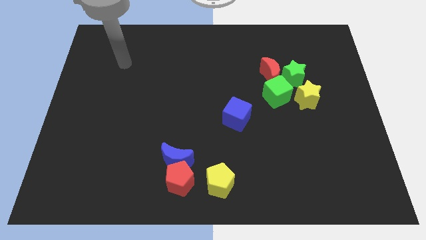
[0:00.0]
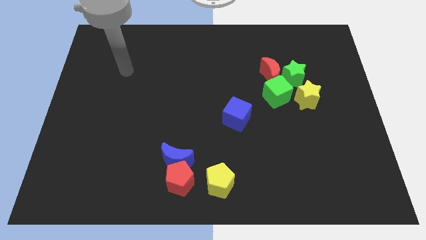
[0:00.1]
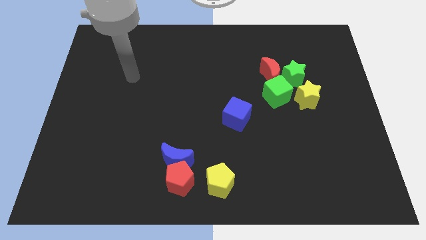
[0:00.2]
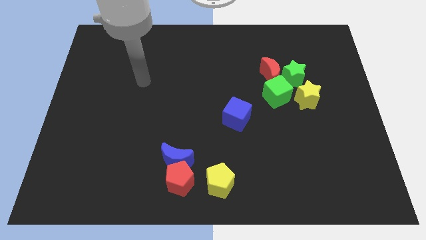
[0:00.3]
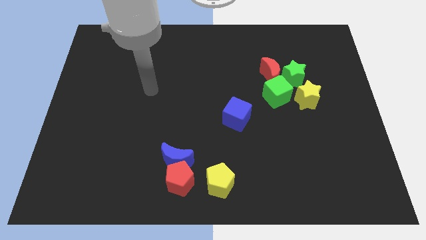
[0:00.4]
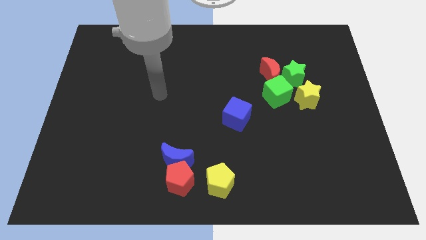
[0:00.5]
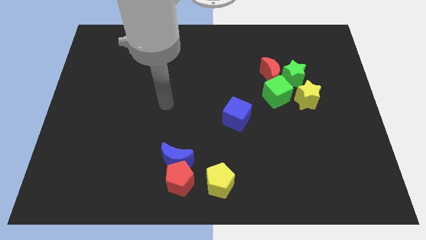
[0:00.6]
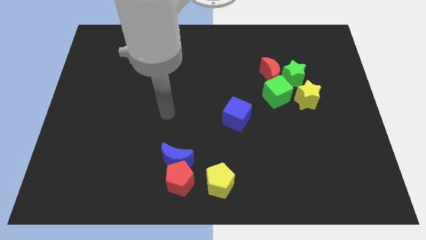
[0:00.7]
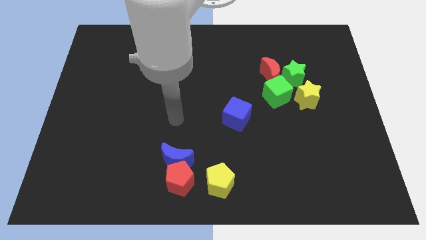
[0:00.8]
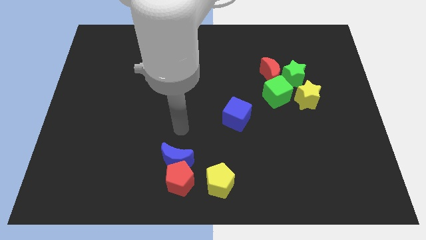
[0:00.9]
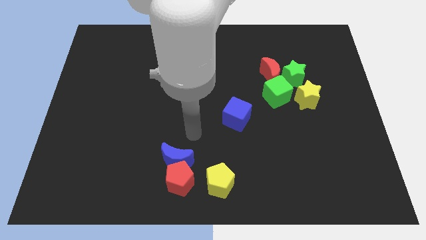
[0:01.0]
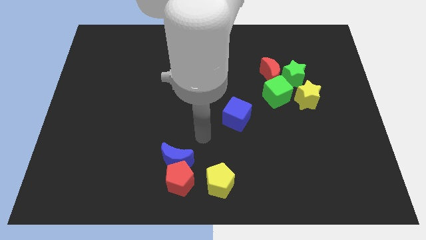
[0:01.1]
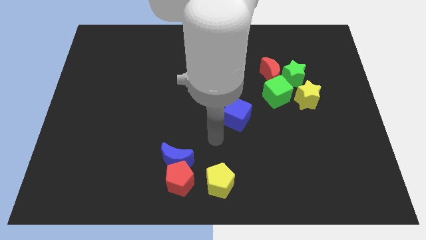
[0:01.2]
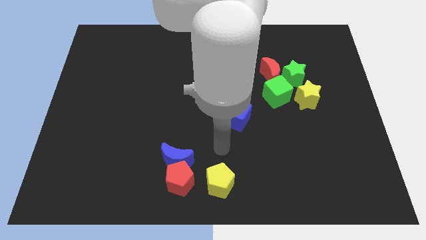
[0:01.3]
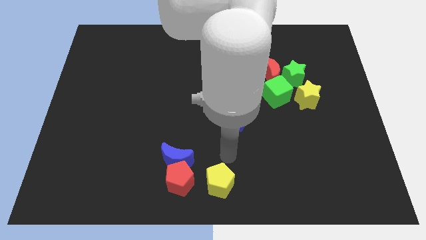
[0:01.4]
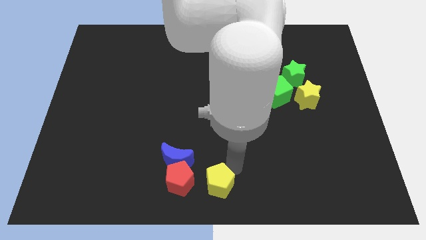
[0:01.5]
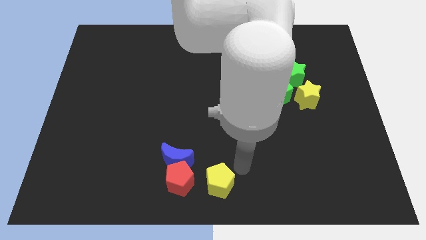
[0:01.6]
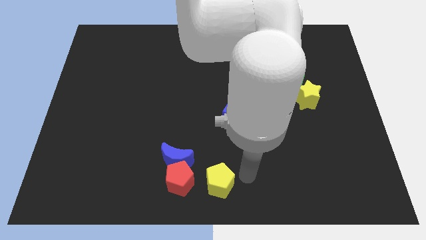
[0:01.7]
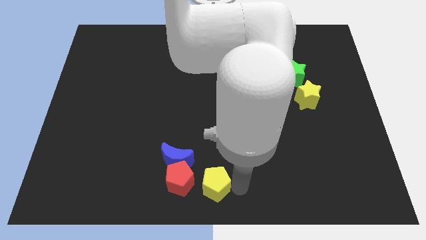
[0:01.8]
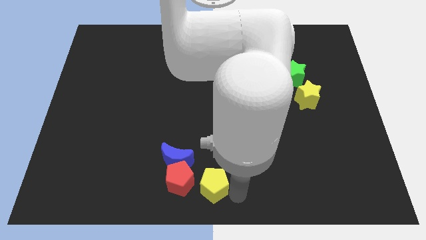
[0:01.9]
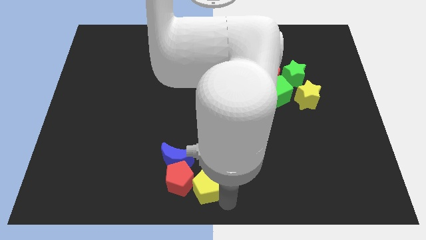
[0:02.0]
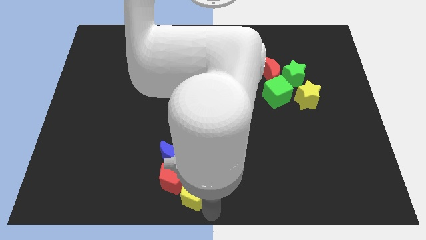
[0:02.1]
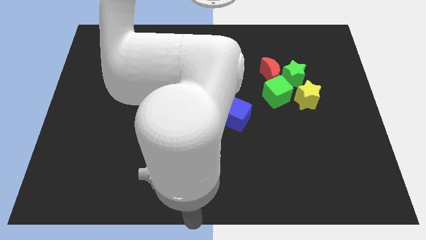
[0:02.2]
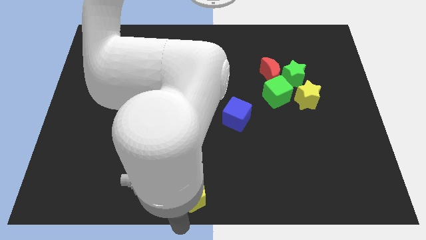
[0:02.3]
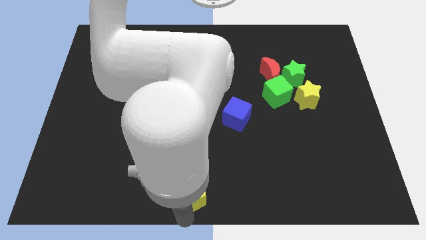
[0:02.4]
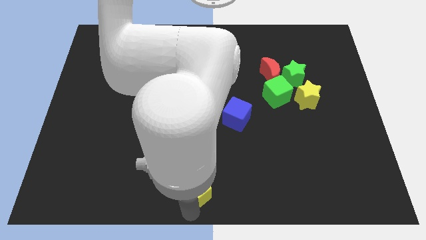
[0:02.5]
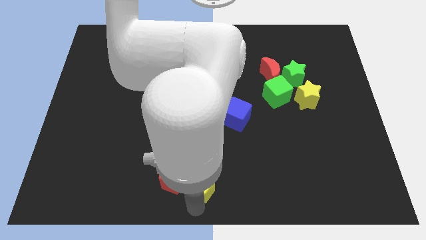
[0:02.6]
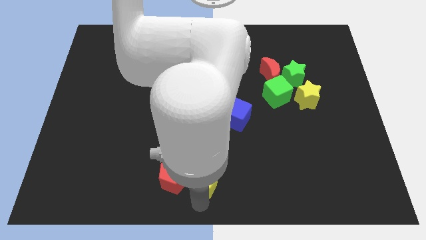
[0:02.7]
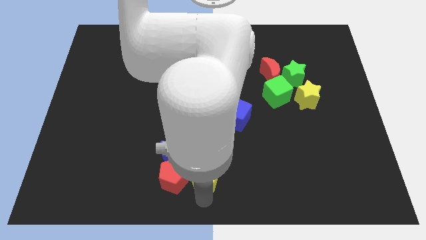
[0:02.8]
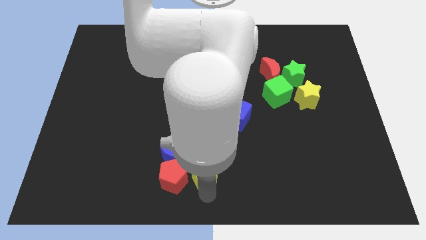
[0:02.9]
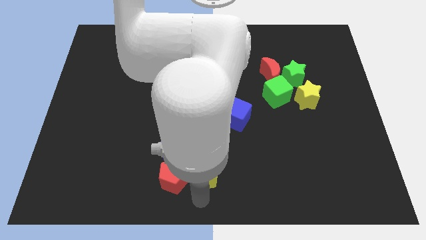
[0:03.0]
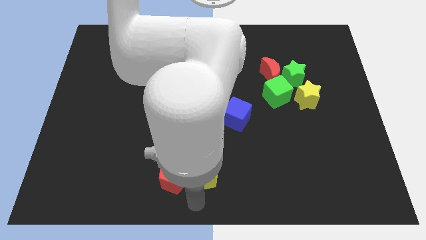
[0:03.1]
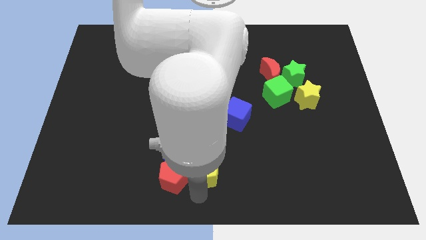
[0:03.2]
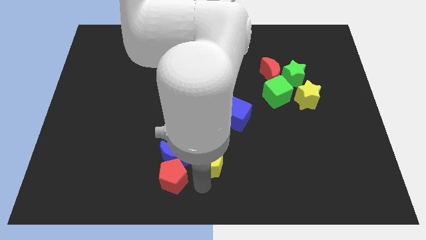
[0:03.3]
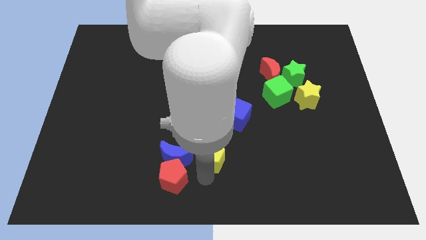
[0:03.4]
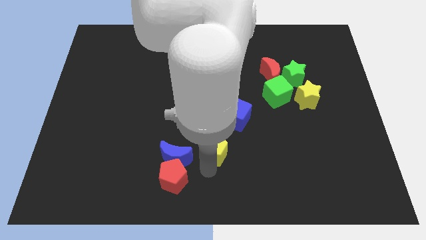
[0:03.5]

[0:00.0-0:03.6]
slide the yellow pentagon upwards a little bit

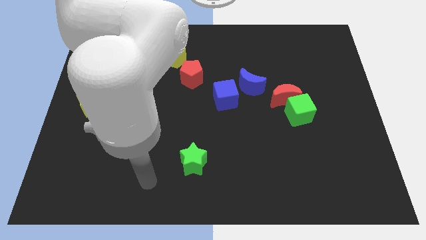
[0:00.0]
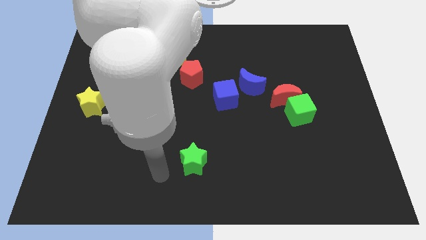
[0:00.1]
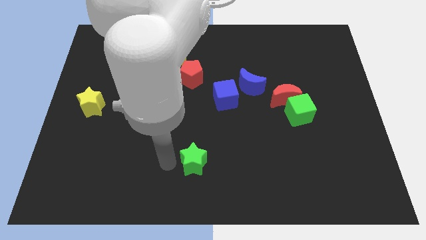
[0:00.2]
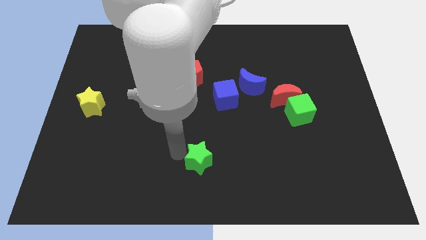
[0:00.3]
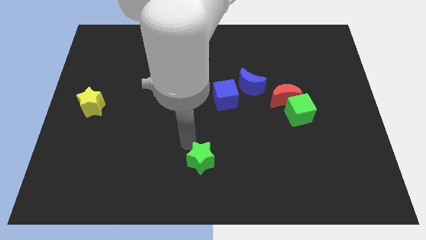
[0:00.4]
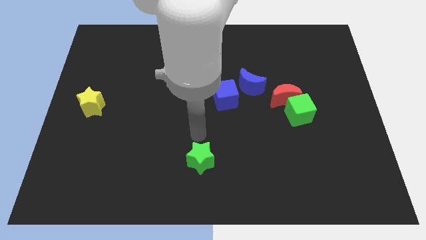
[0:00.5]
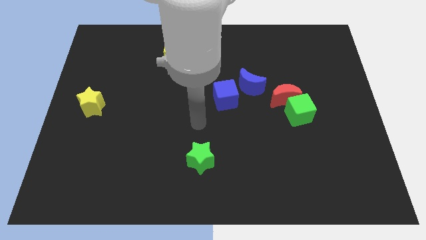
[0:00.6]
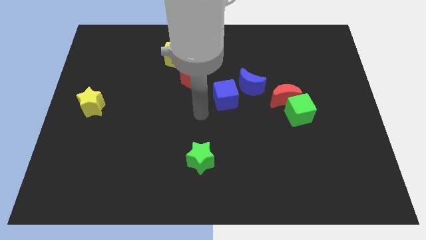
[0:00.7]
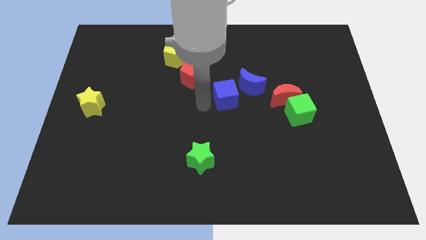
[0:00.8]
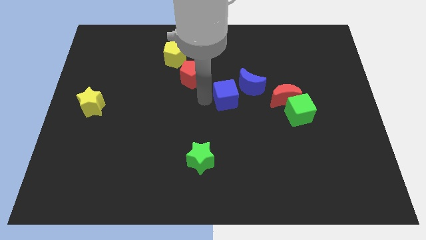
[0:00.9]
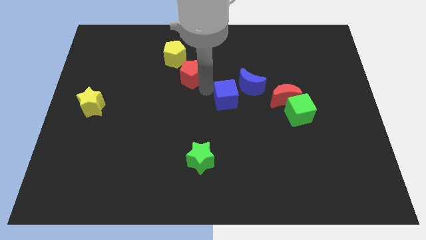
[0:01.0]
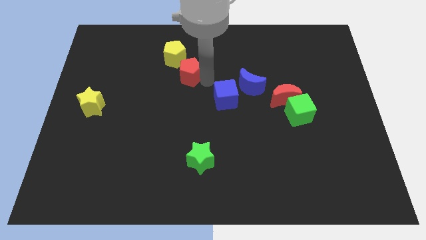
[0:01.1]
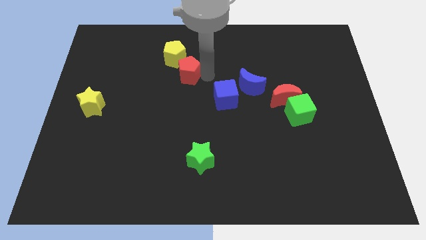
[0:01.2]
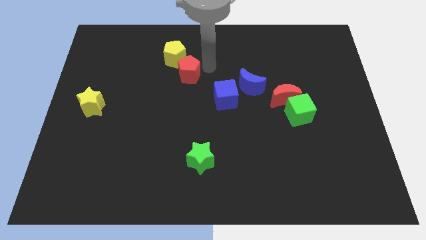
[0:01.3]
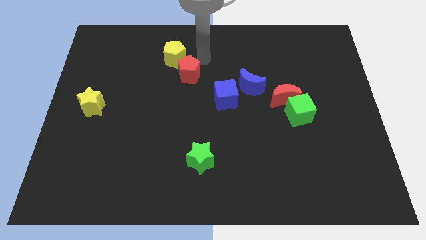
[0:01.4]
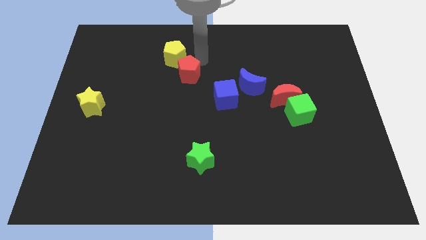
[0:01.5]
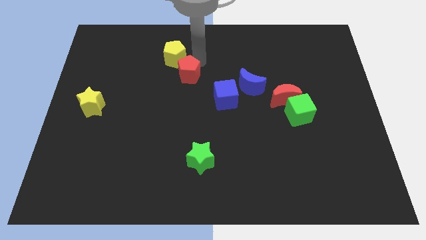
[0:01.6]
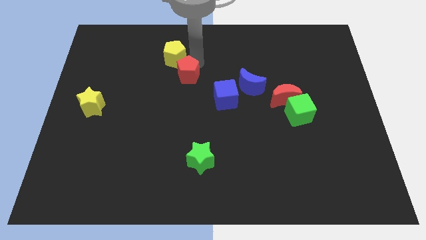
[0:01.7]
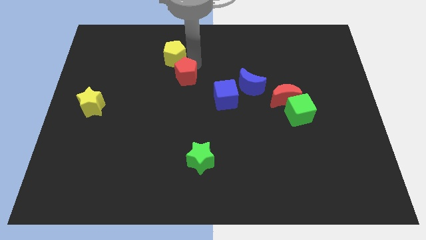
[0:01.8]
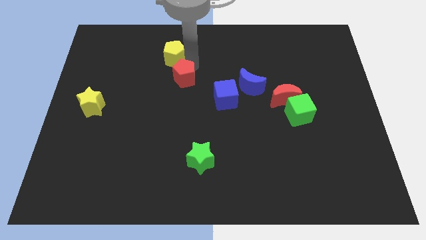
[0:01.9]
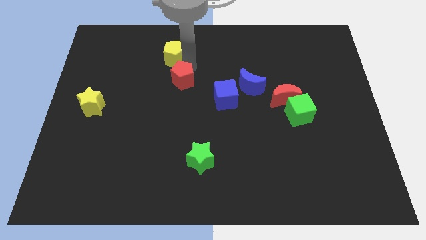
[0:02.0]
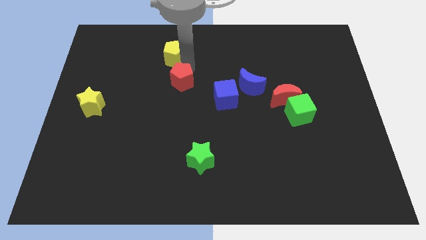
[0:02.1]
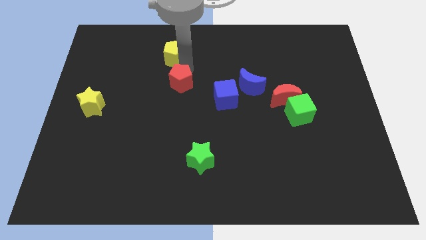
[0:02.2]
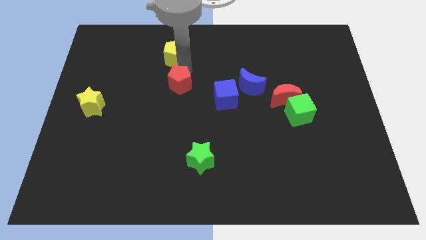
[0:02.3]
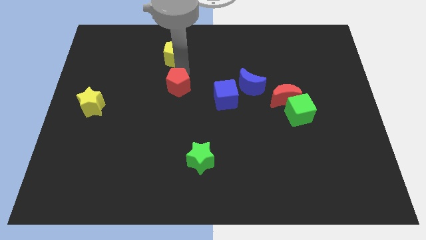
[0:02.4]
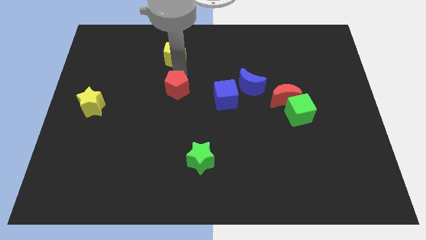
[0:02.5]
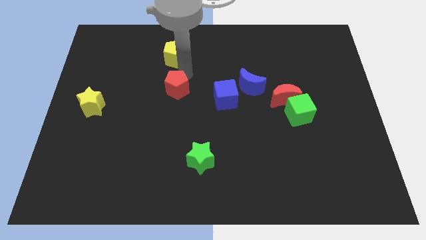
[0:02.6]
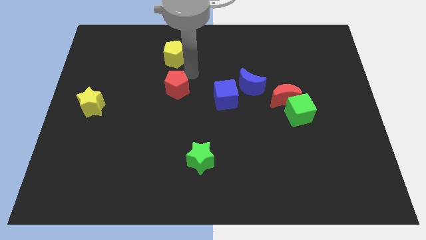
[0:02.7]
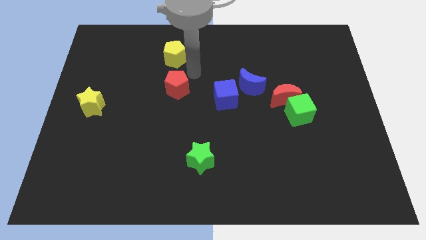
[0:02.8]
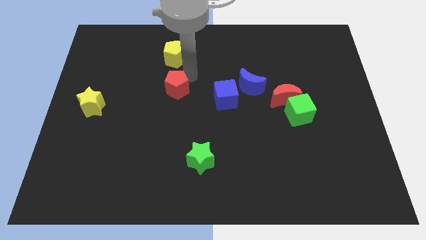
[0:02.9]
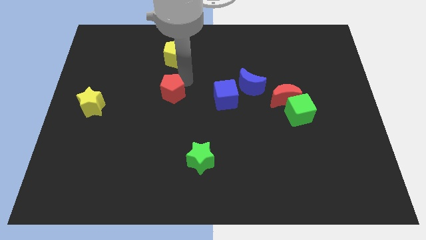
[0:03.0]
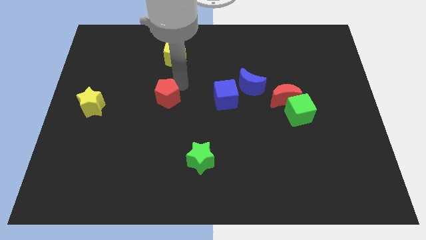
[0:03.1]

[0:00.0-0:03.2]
push the red pentagon down and to the left a little bit

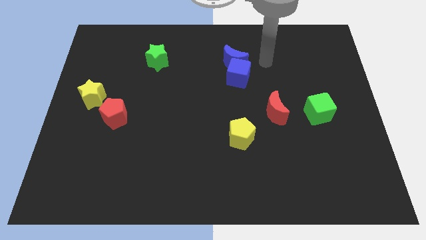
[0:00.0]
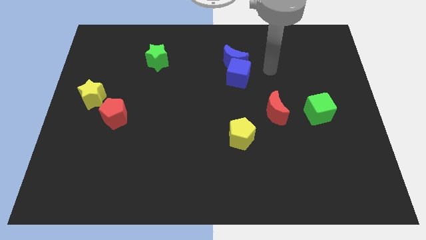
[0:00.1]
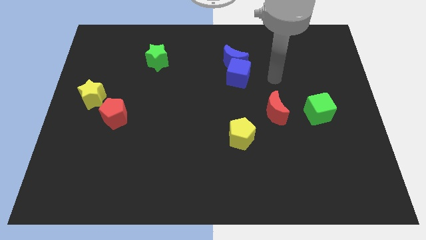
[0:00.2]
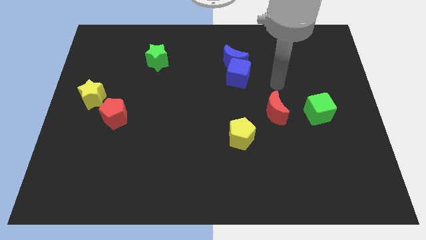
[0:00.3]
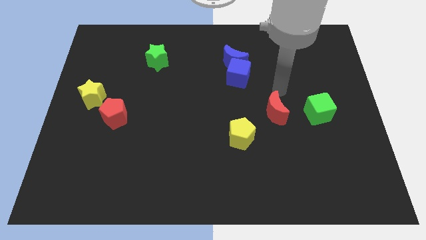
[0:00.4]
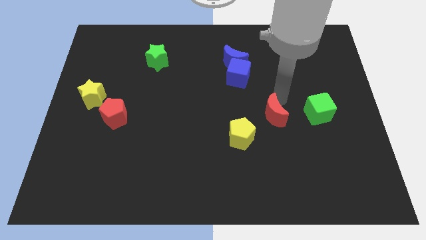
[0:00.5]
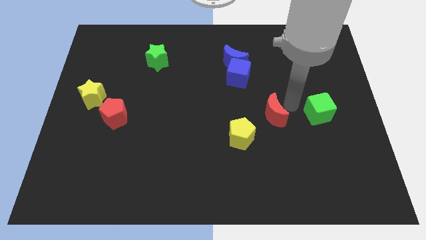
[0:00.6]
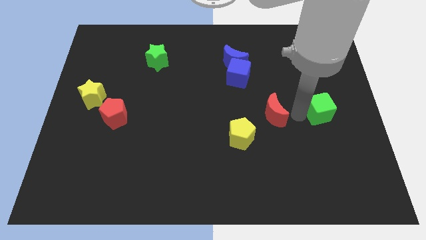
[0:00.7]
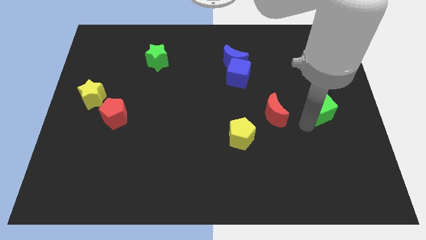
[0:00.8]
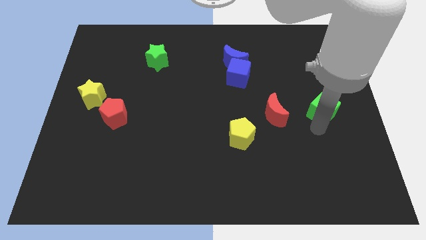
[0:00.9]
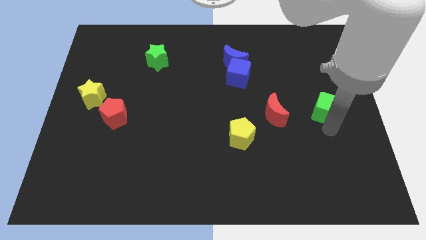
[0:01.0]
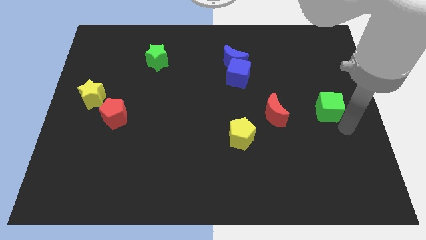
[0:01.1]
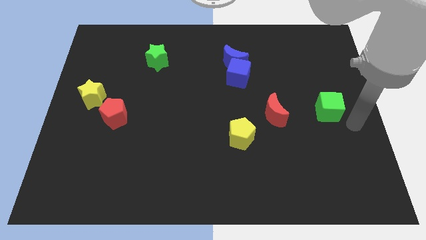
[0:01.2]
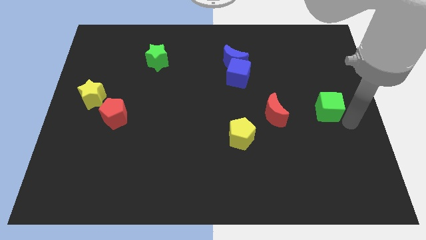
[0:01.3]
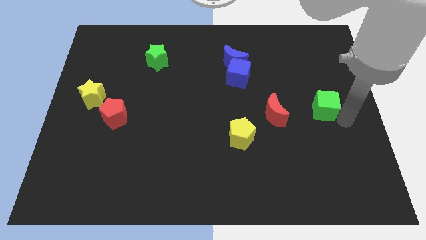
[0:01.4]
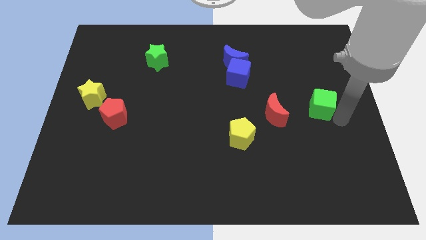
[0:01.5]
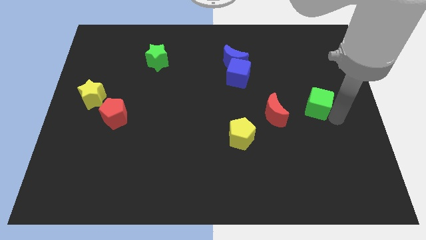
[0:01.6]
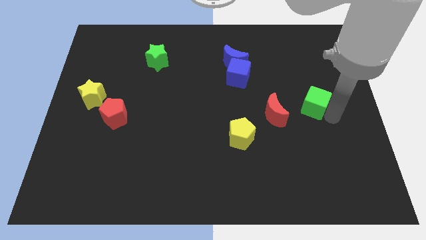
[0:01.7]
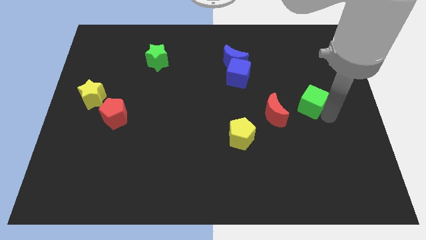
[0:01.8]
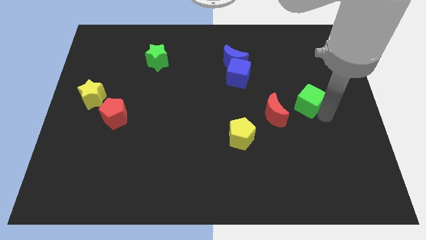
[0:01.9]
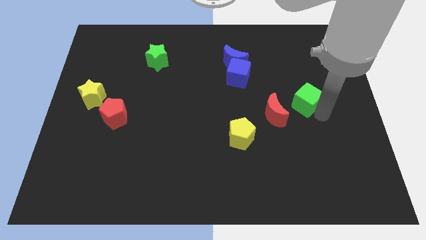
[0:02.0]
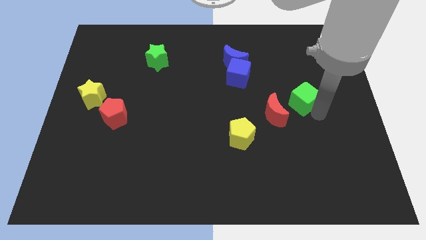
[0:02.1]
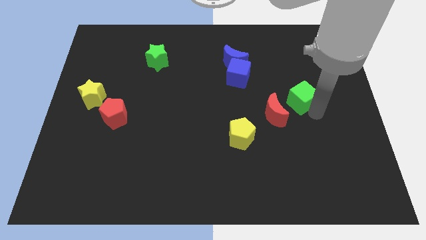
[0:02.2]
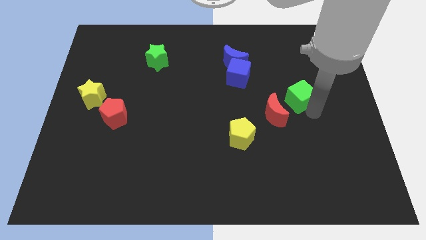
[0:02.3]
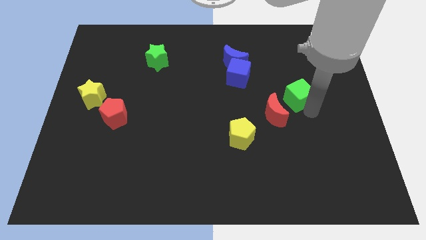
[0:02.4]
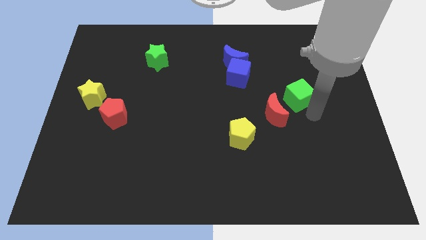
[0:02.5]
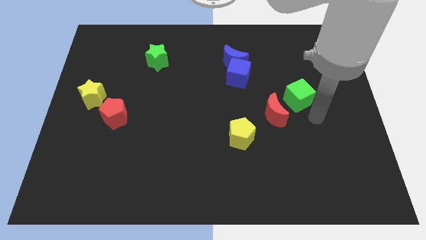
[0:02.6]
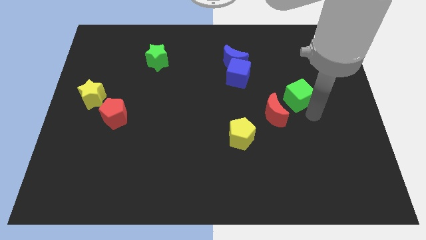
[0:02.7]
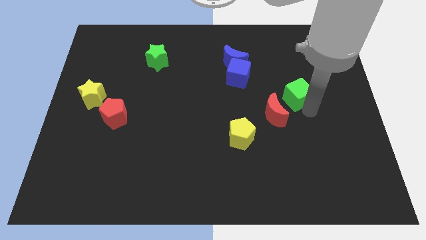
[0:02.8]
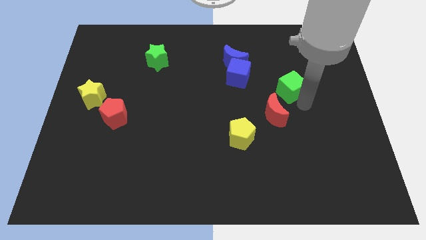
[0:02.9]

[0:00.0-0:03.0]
move the green cube a bit upwards and to the left
